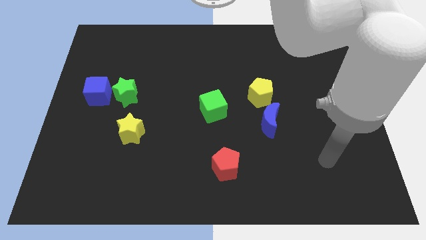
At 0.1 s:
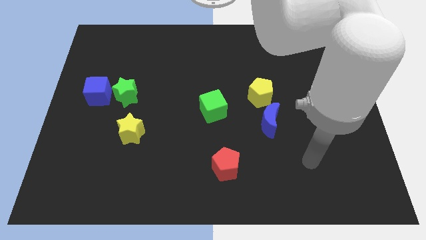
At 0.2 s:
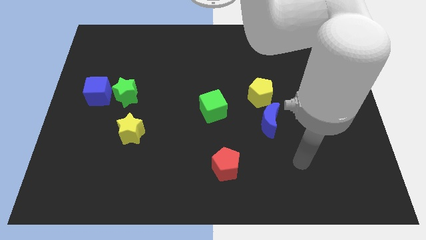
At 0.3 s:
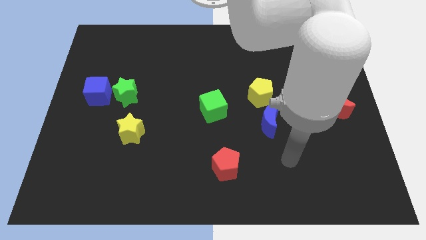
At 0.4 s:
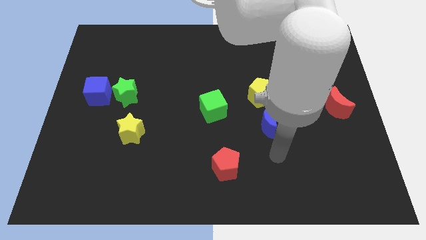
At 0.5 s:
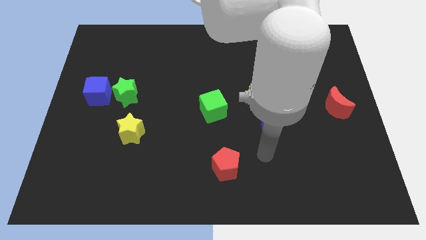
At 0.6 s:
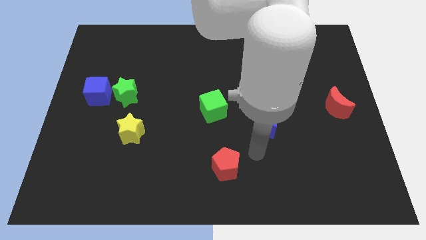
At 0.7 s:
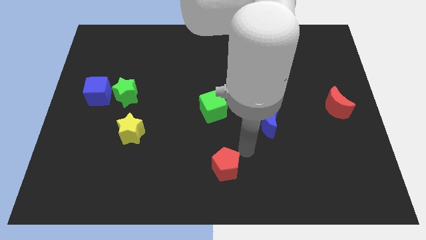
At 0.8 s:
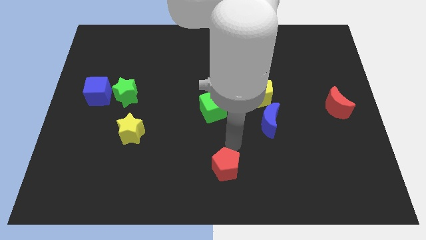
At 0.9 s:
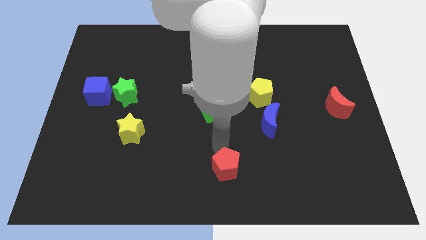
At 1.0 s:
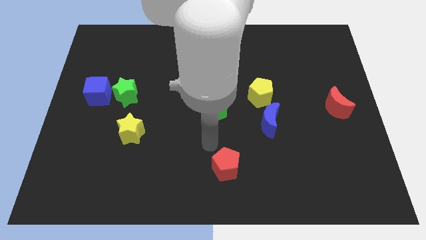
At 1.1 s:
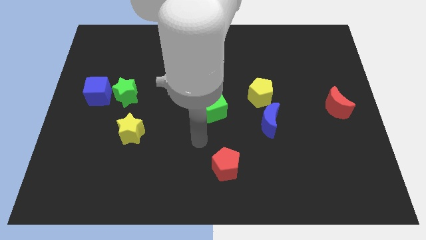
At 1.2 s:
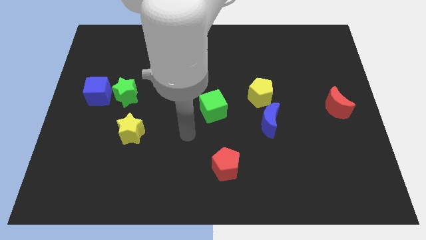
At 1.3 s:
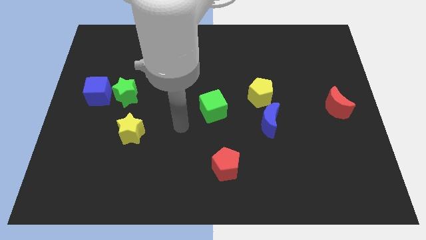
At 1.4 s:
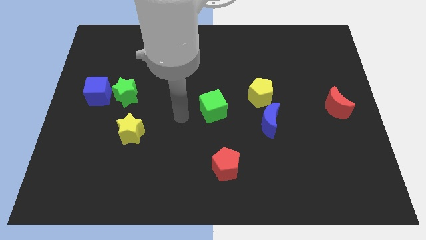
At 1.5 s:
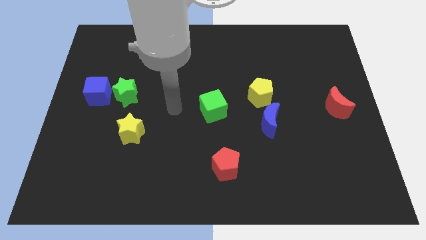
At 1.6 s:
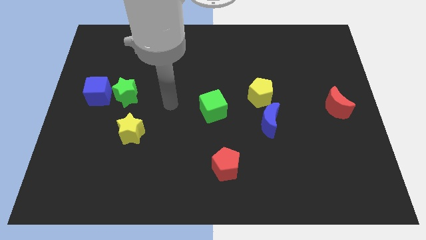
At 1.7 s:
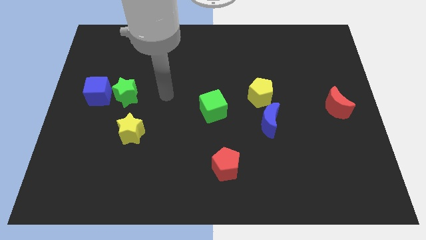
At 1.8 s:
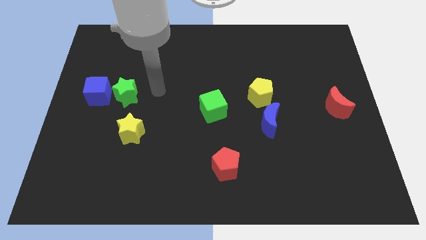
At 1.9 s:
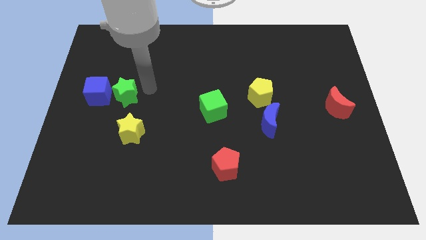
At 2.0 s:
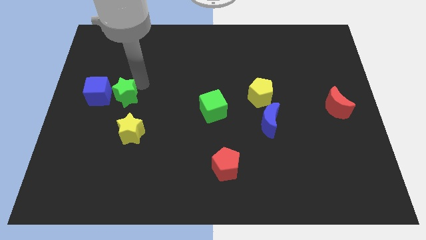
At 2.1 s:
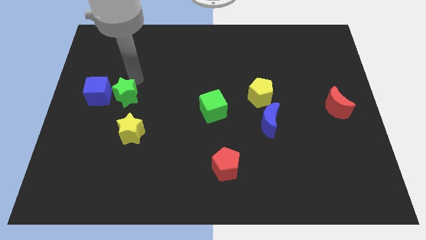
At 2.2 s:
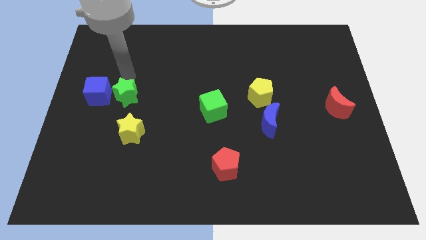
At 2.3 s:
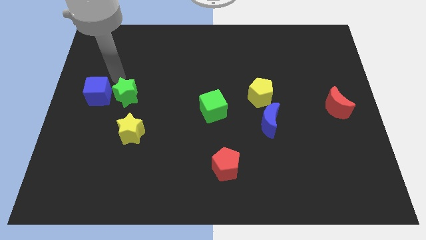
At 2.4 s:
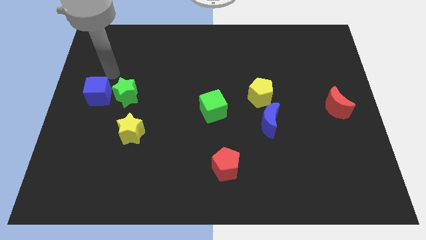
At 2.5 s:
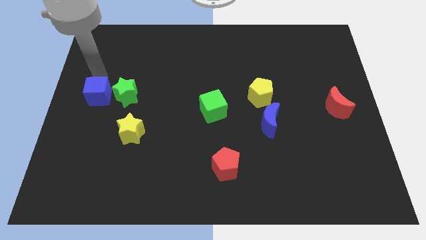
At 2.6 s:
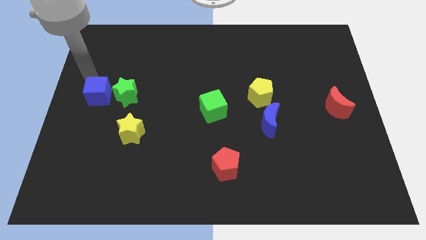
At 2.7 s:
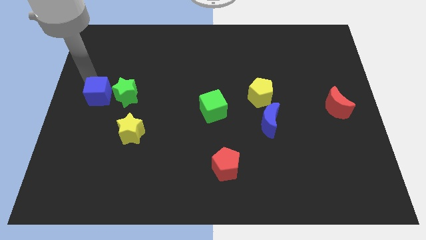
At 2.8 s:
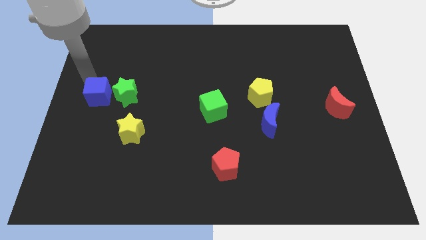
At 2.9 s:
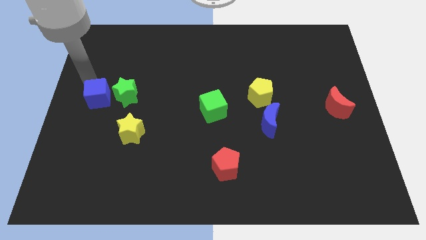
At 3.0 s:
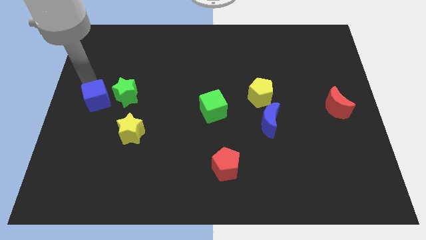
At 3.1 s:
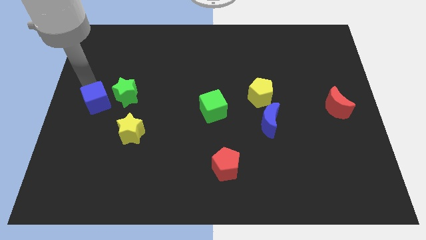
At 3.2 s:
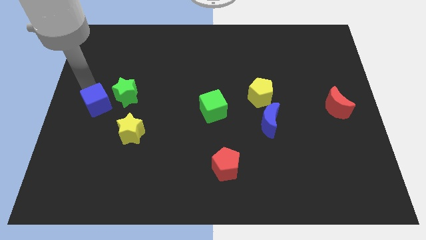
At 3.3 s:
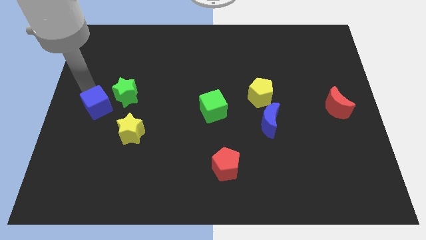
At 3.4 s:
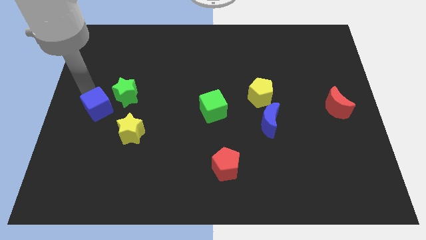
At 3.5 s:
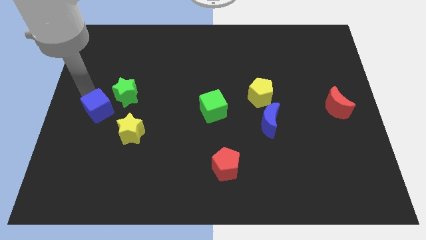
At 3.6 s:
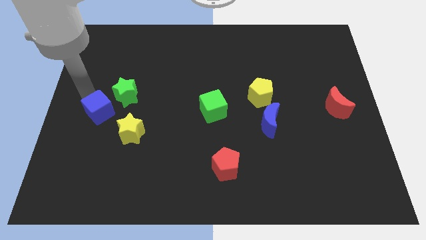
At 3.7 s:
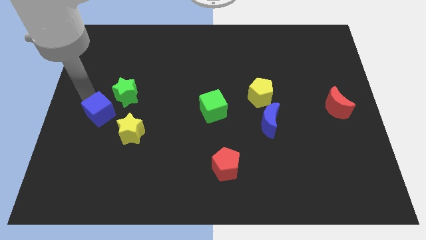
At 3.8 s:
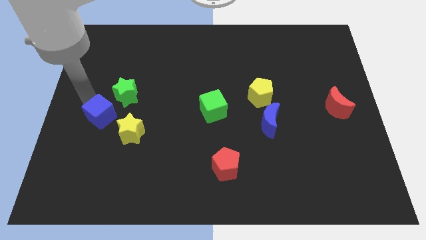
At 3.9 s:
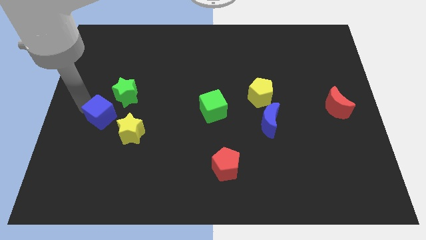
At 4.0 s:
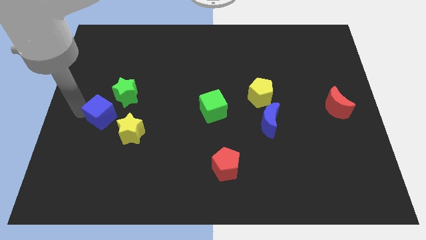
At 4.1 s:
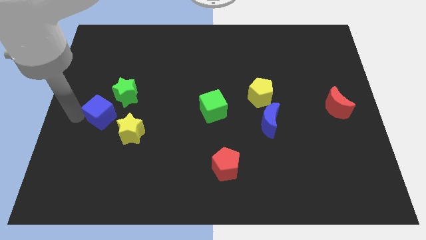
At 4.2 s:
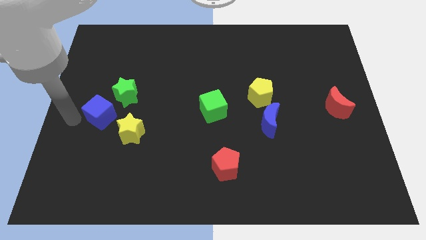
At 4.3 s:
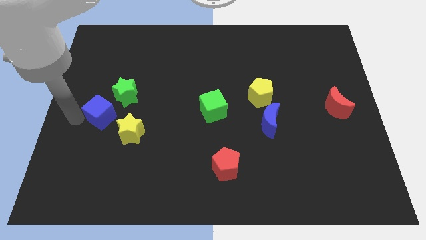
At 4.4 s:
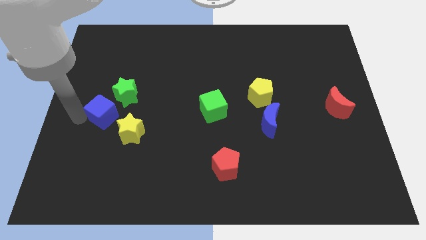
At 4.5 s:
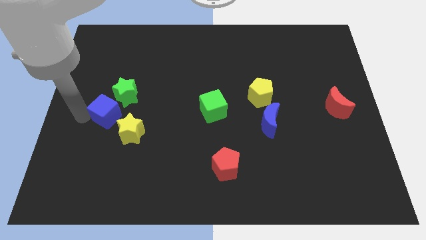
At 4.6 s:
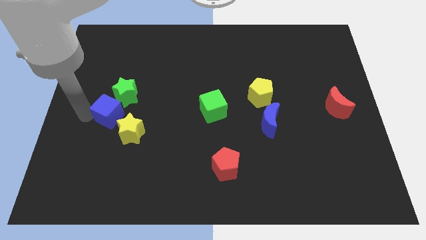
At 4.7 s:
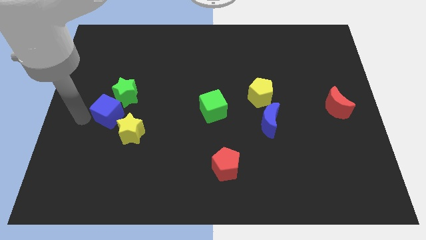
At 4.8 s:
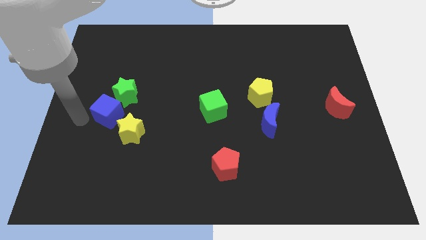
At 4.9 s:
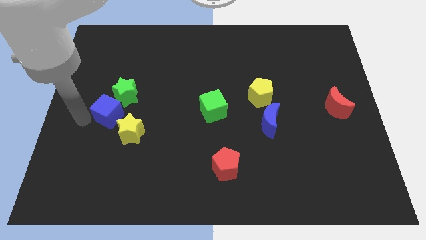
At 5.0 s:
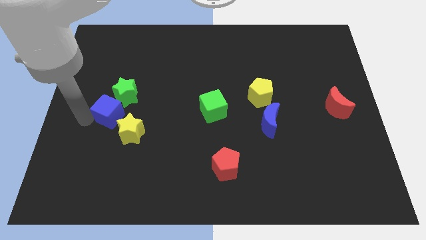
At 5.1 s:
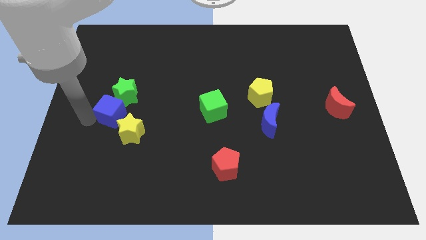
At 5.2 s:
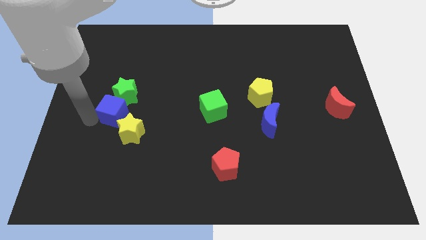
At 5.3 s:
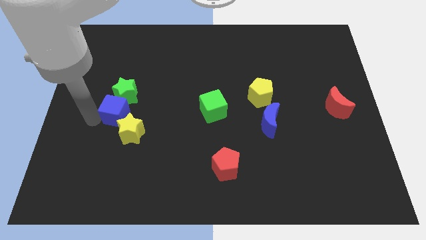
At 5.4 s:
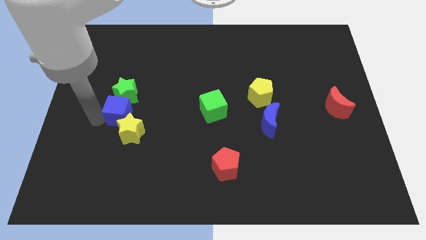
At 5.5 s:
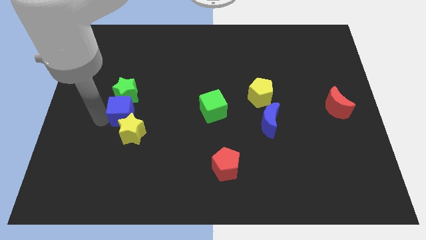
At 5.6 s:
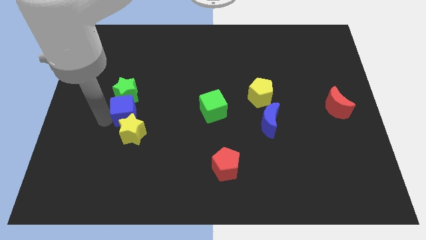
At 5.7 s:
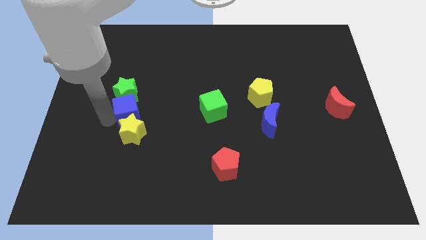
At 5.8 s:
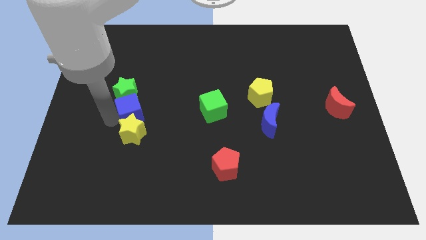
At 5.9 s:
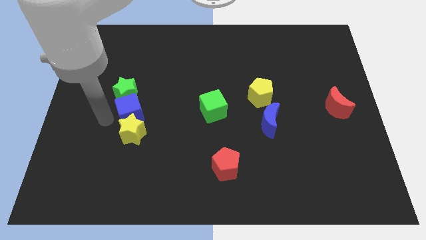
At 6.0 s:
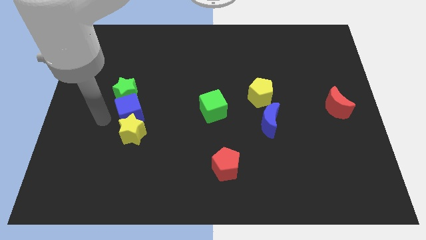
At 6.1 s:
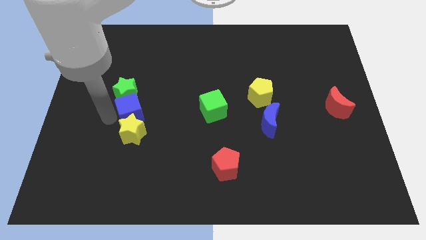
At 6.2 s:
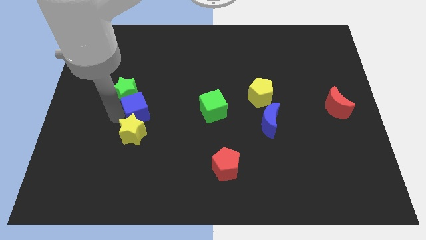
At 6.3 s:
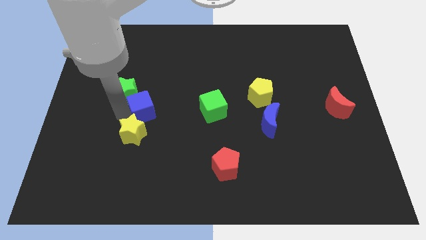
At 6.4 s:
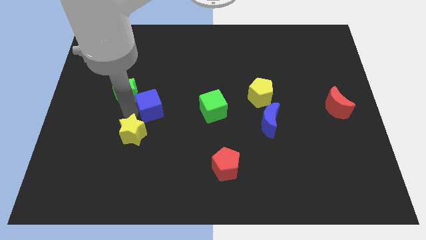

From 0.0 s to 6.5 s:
put the blue cube just left of the green cube

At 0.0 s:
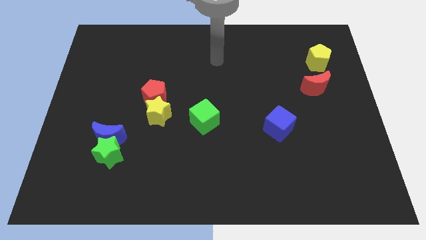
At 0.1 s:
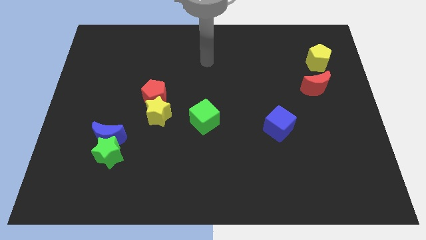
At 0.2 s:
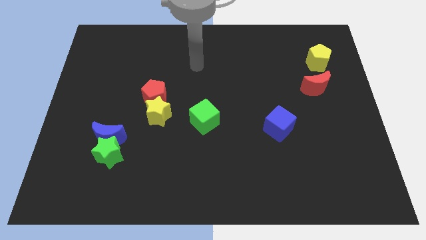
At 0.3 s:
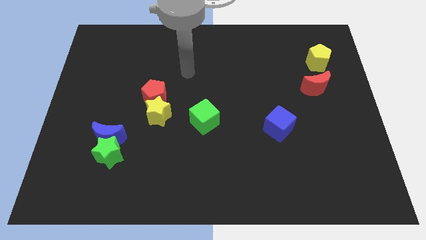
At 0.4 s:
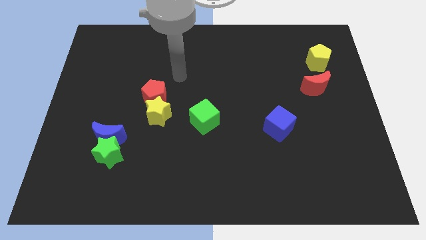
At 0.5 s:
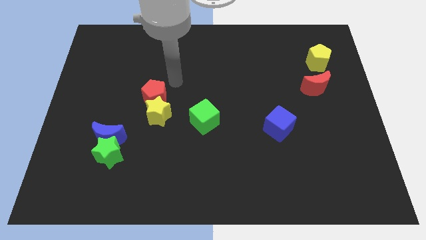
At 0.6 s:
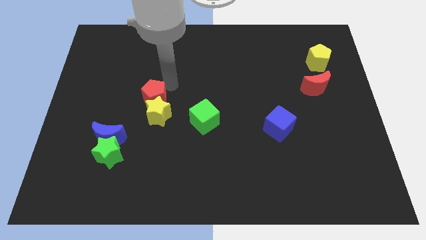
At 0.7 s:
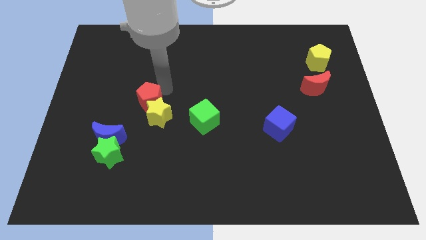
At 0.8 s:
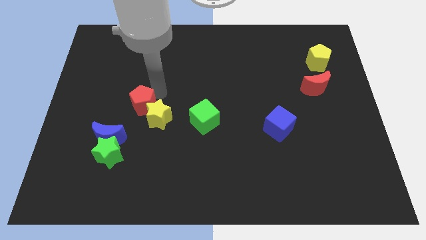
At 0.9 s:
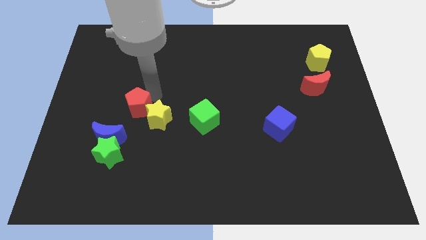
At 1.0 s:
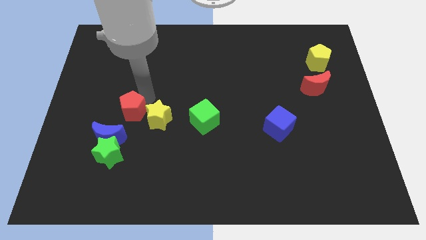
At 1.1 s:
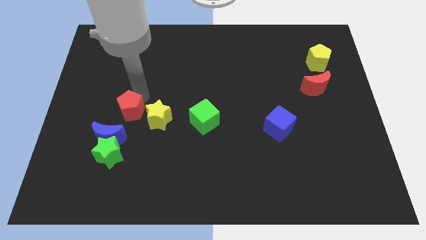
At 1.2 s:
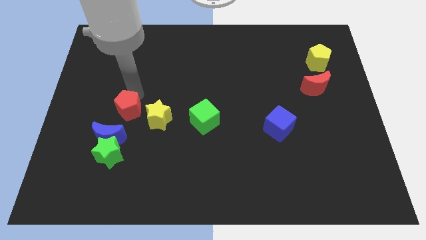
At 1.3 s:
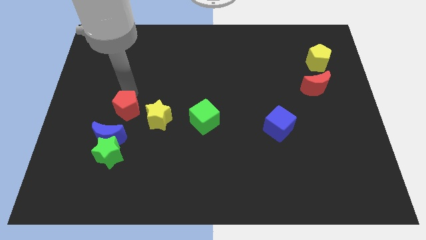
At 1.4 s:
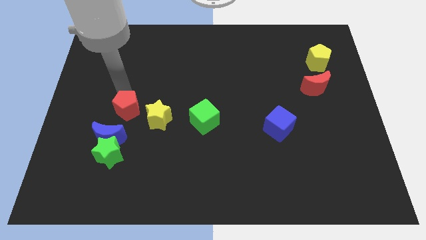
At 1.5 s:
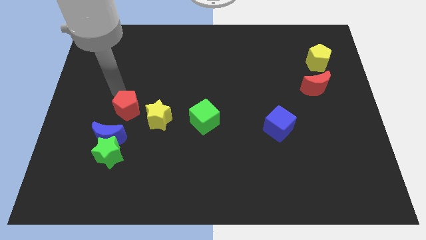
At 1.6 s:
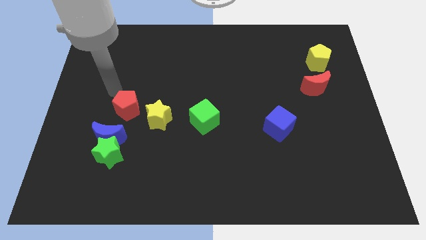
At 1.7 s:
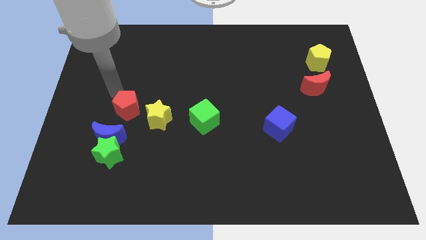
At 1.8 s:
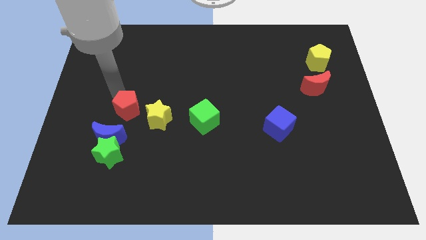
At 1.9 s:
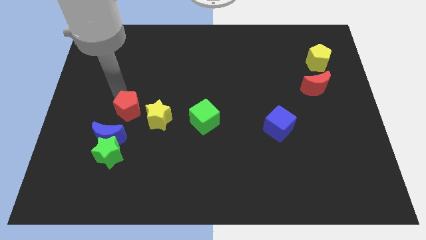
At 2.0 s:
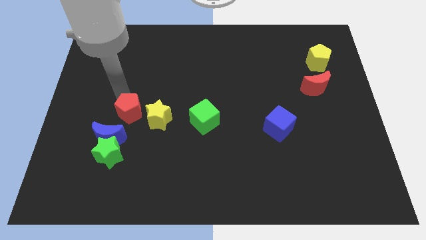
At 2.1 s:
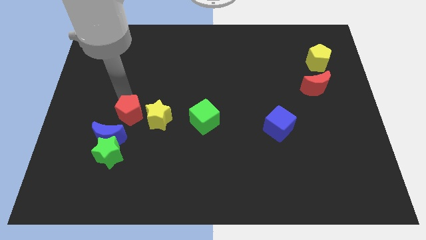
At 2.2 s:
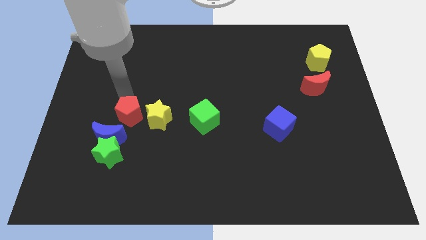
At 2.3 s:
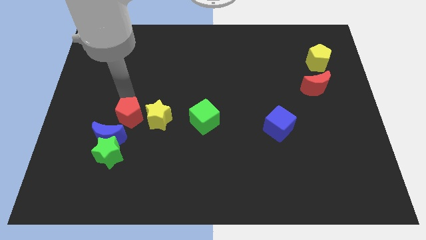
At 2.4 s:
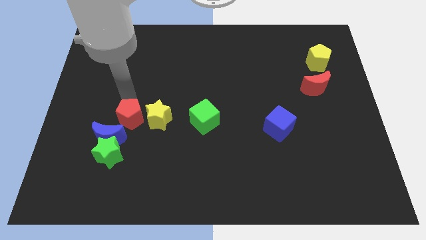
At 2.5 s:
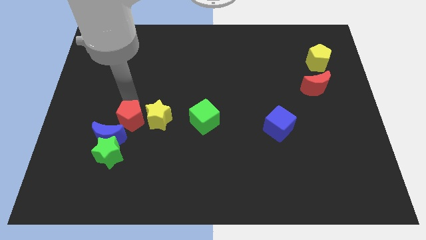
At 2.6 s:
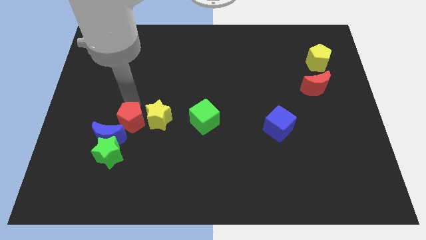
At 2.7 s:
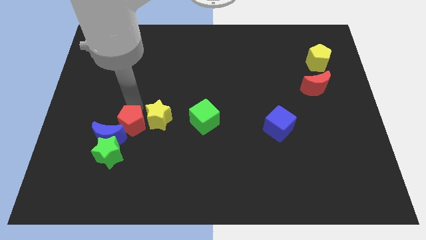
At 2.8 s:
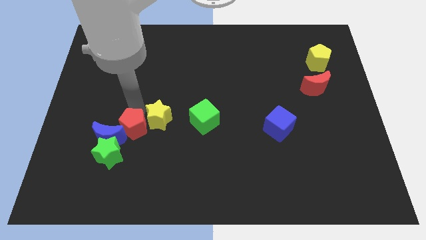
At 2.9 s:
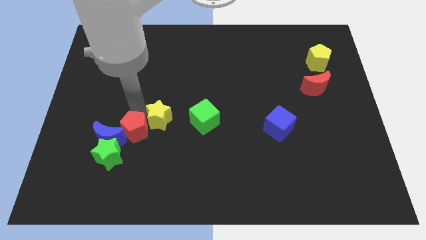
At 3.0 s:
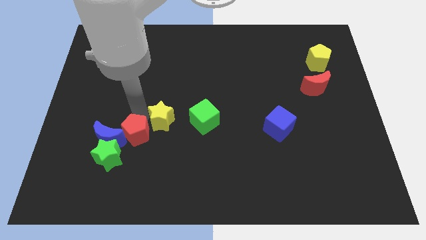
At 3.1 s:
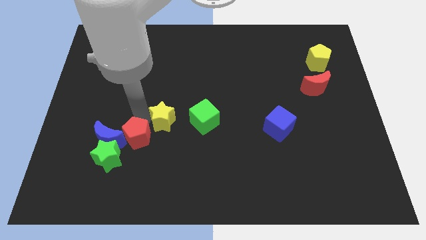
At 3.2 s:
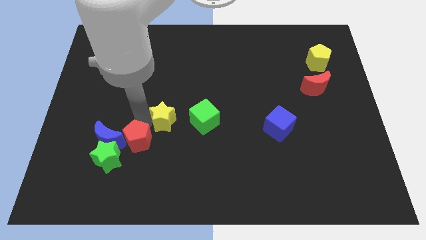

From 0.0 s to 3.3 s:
move the red pentagon to the bottom of the yellow star
